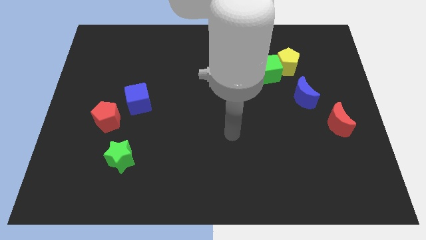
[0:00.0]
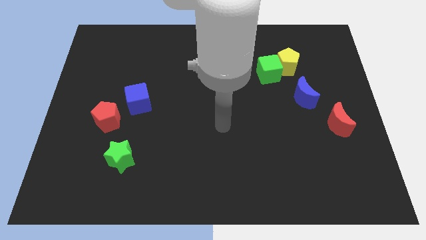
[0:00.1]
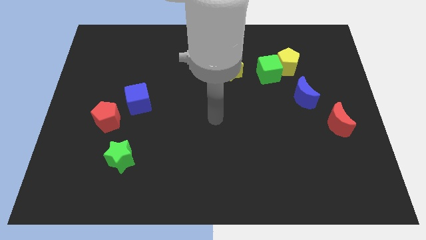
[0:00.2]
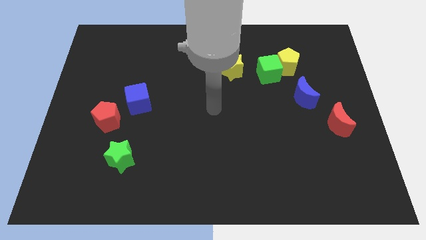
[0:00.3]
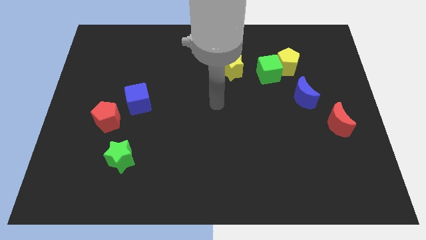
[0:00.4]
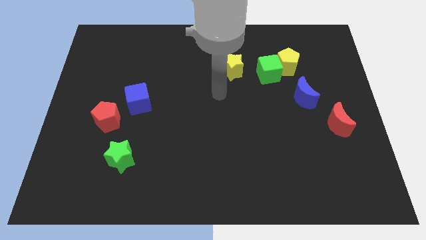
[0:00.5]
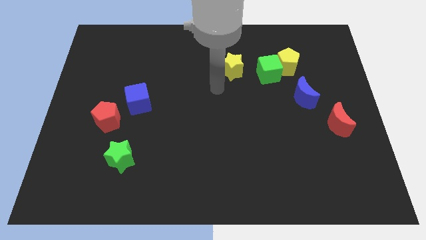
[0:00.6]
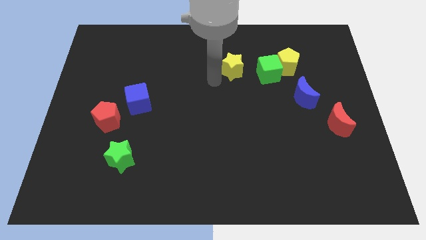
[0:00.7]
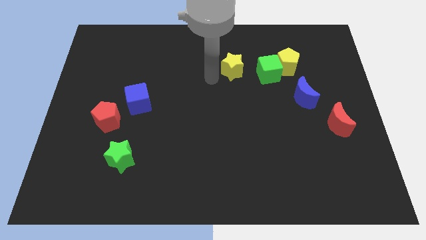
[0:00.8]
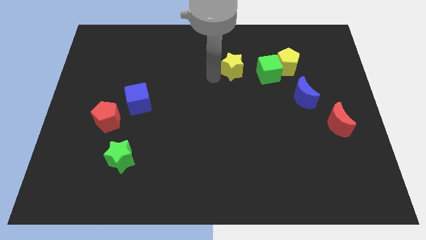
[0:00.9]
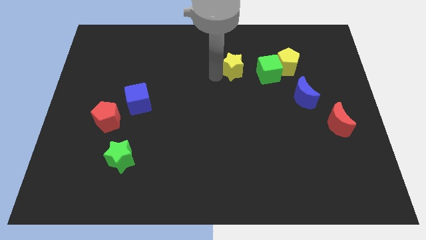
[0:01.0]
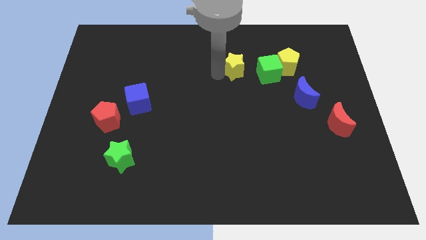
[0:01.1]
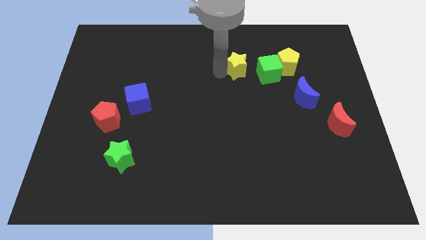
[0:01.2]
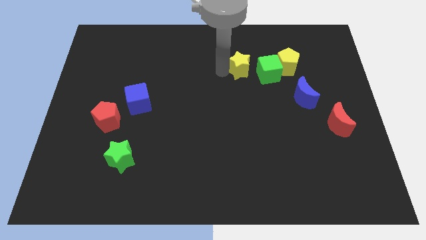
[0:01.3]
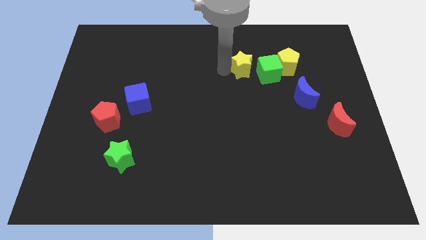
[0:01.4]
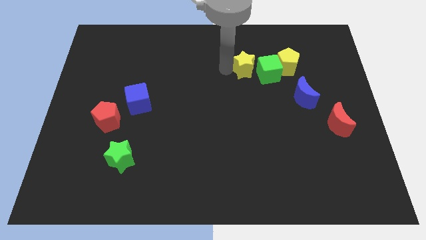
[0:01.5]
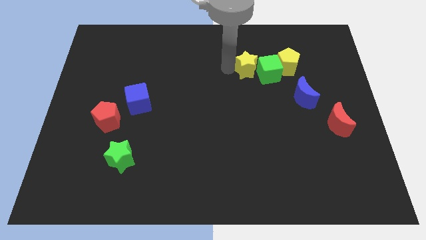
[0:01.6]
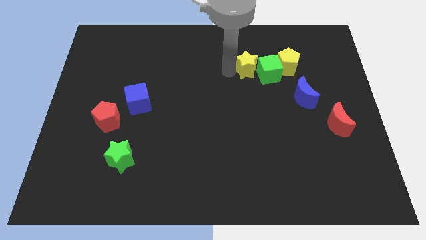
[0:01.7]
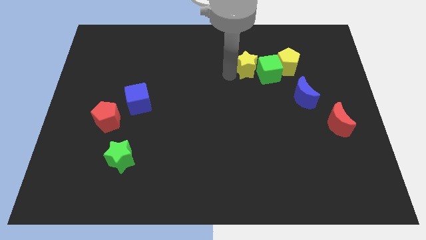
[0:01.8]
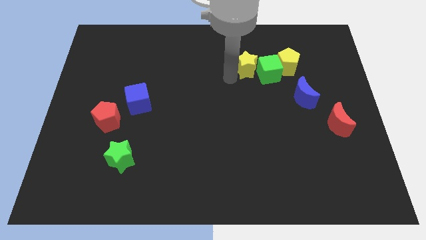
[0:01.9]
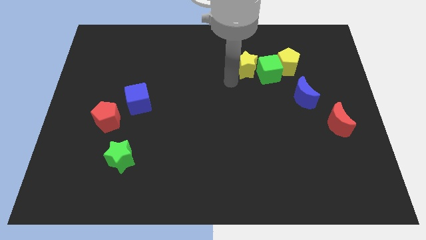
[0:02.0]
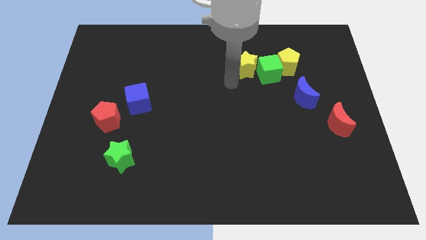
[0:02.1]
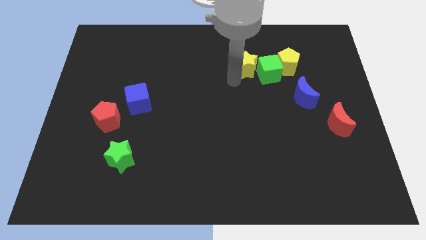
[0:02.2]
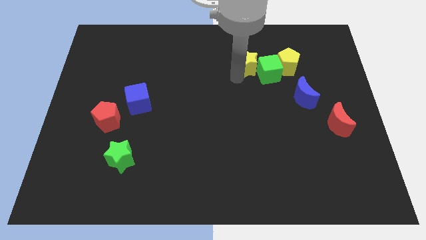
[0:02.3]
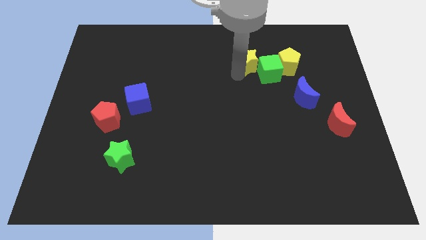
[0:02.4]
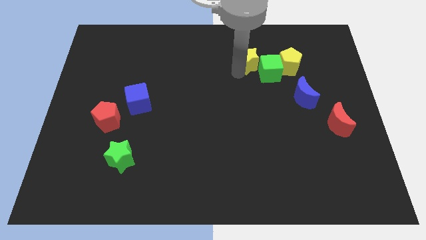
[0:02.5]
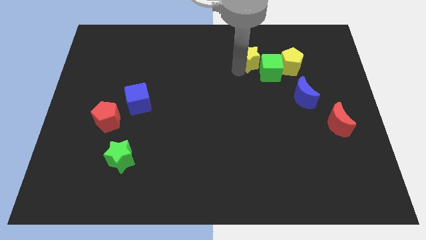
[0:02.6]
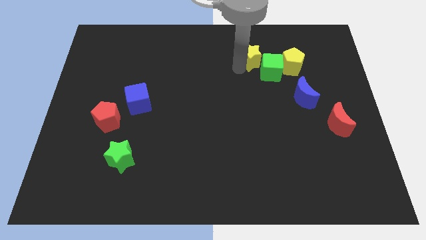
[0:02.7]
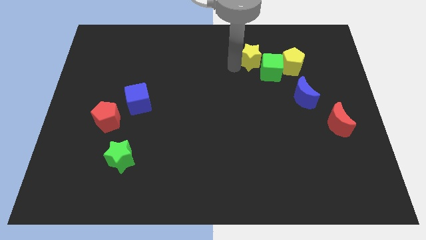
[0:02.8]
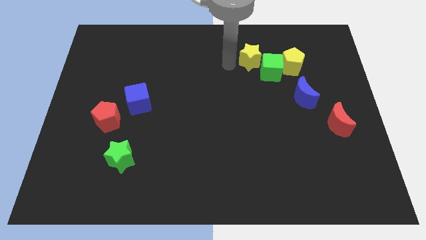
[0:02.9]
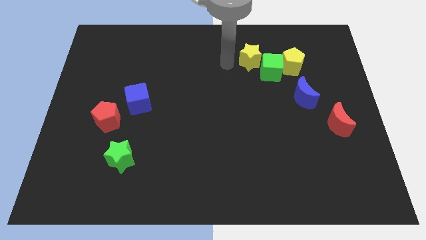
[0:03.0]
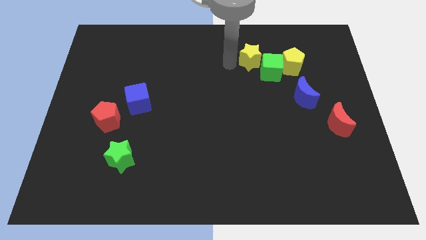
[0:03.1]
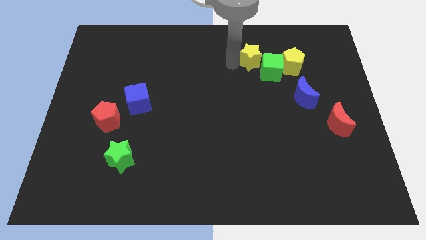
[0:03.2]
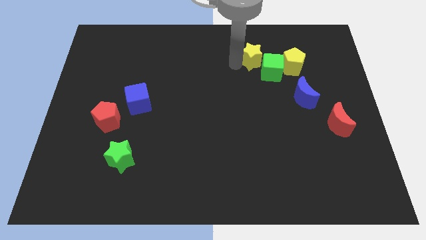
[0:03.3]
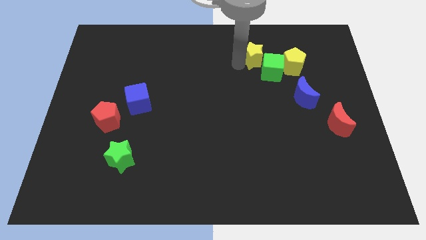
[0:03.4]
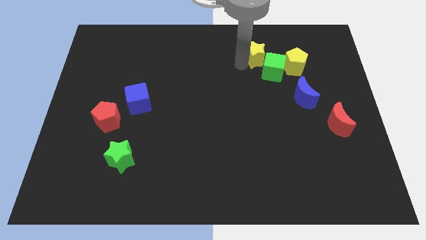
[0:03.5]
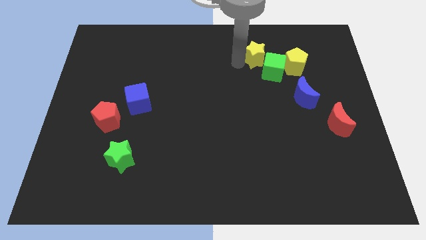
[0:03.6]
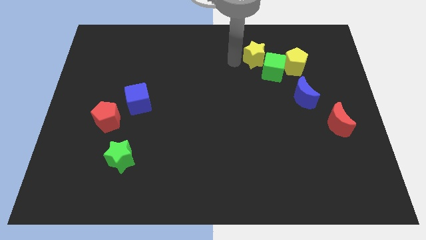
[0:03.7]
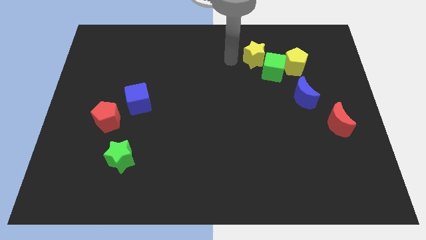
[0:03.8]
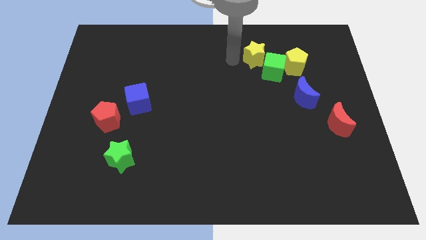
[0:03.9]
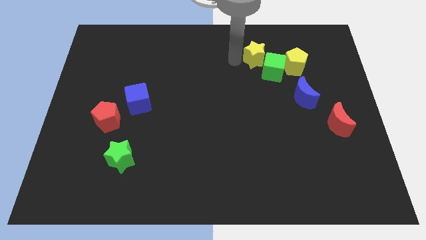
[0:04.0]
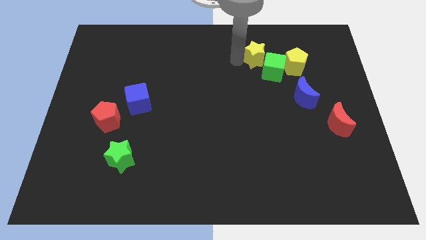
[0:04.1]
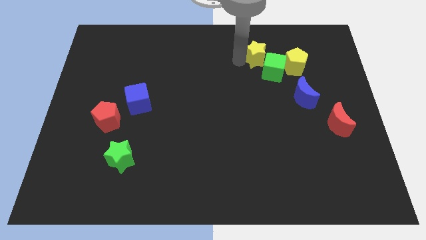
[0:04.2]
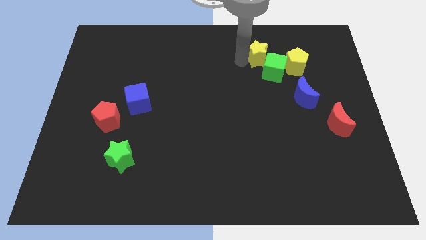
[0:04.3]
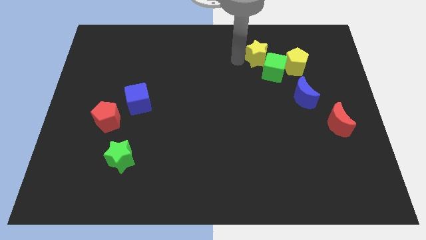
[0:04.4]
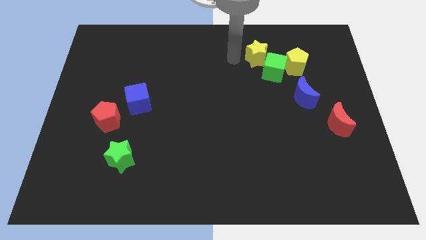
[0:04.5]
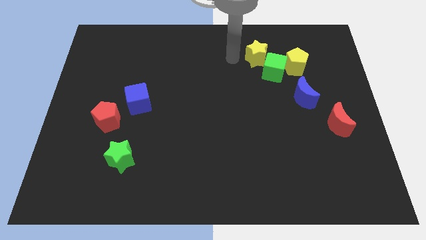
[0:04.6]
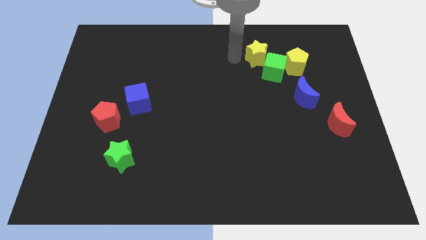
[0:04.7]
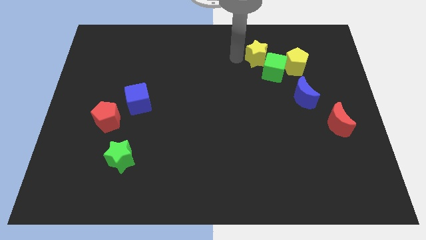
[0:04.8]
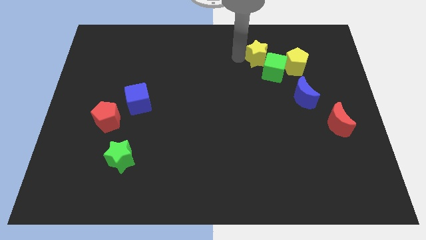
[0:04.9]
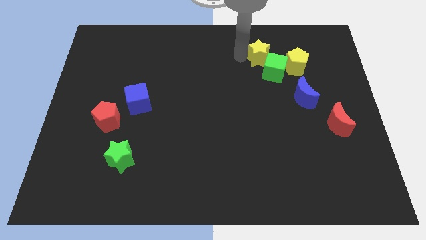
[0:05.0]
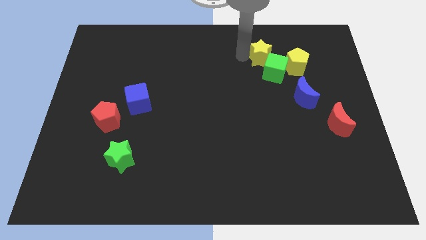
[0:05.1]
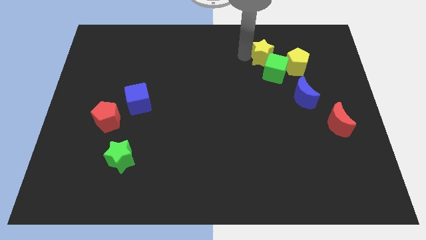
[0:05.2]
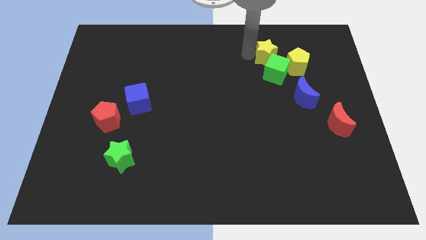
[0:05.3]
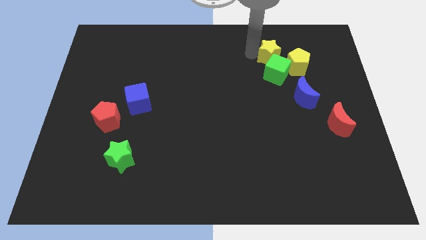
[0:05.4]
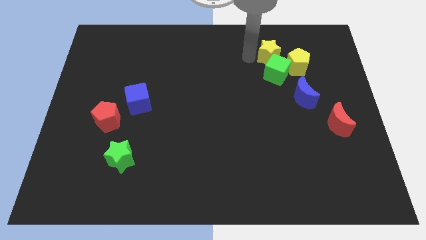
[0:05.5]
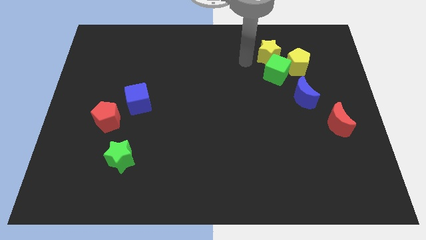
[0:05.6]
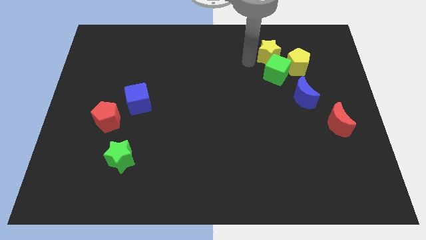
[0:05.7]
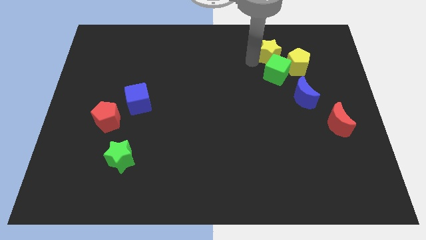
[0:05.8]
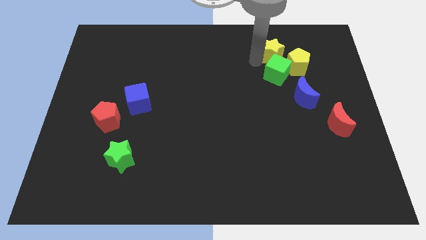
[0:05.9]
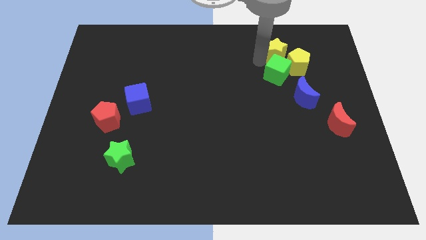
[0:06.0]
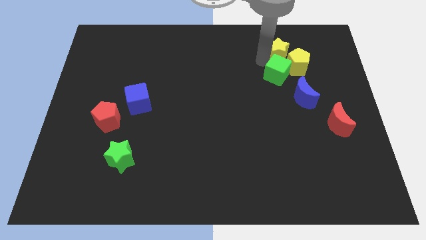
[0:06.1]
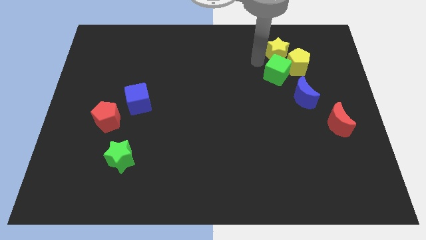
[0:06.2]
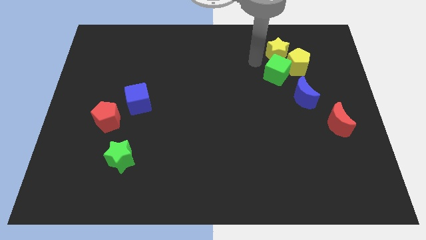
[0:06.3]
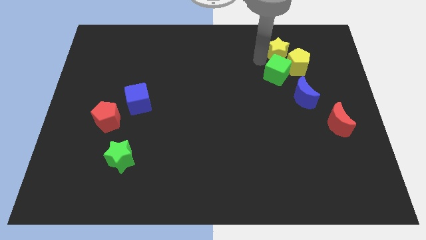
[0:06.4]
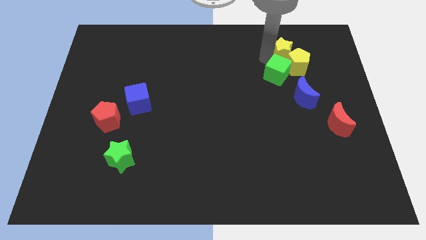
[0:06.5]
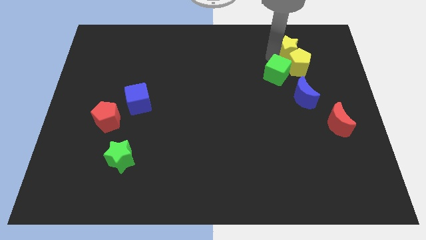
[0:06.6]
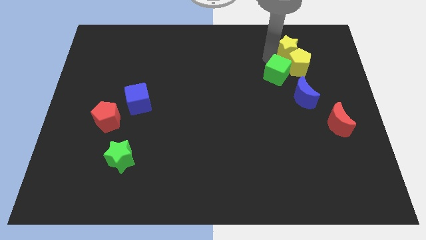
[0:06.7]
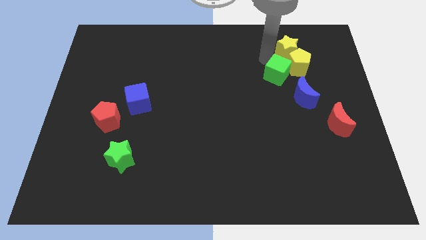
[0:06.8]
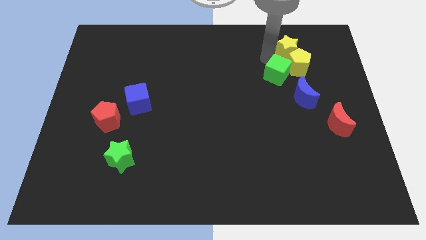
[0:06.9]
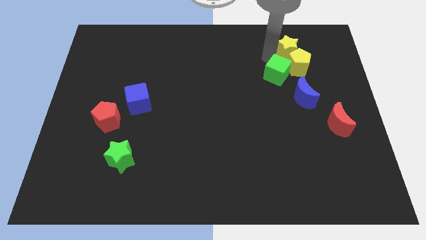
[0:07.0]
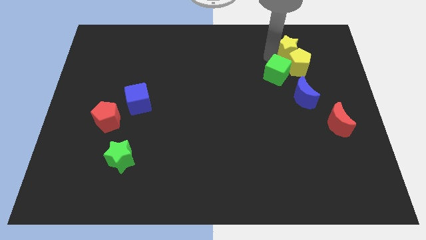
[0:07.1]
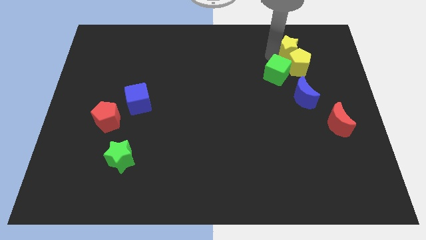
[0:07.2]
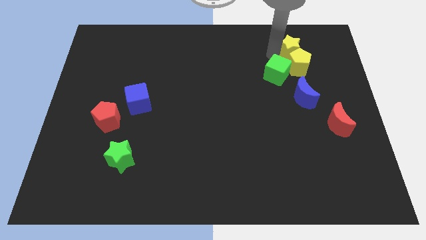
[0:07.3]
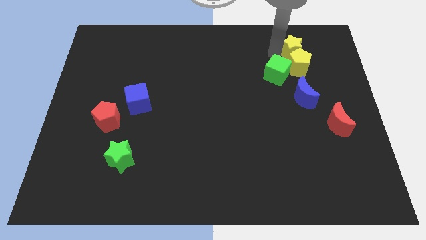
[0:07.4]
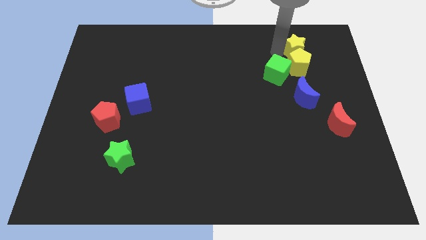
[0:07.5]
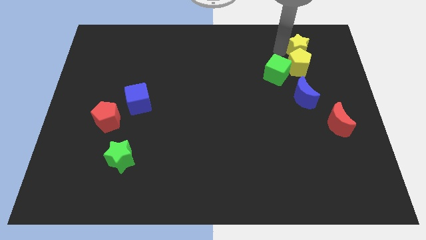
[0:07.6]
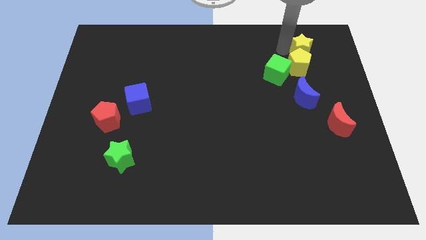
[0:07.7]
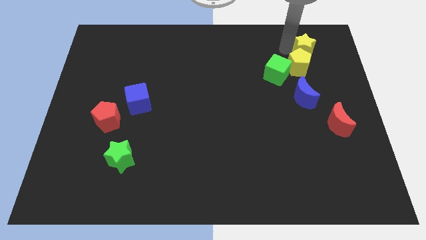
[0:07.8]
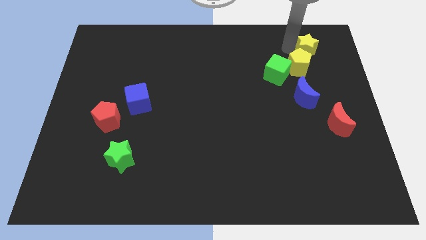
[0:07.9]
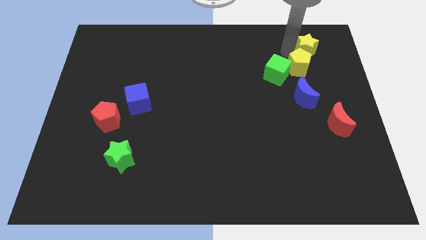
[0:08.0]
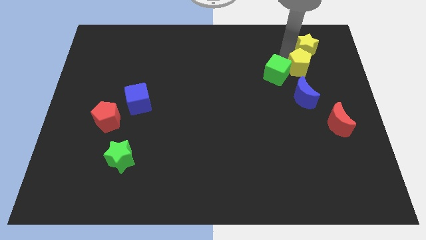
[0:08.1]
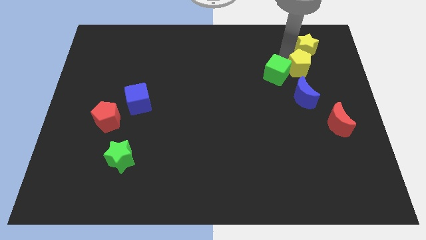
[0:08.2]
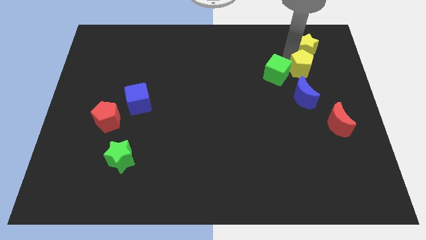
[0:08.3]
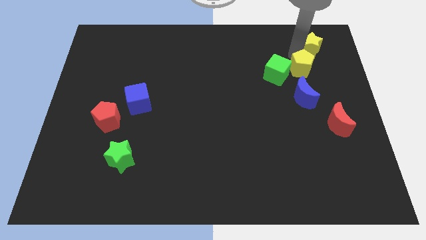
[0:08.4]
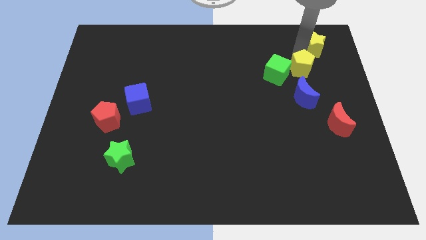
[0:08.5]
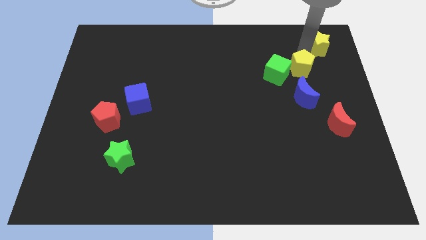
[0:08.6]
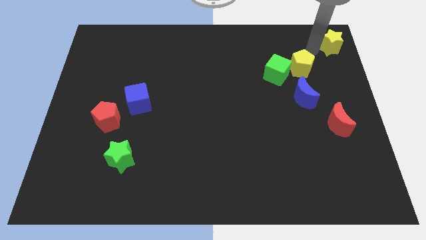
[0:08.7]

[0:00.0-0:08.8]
move the yellow star to the upper right corner
